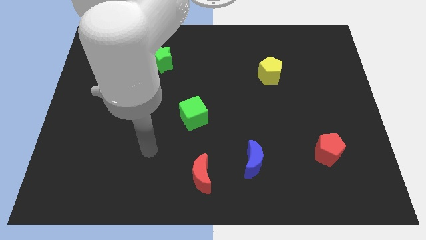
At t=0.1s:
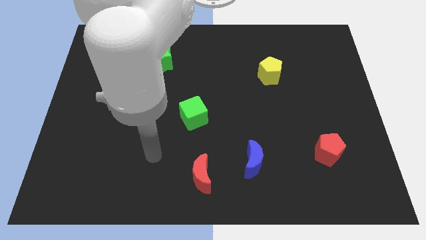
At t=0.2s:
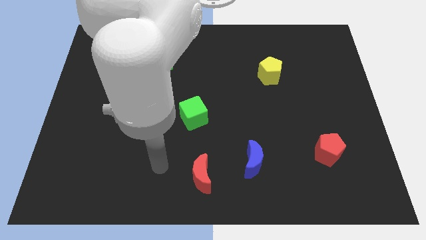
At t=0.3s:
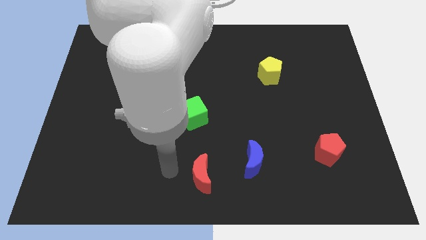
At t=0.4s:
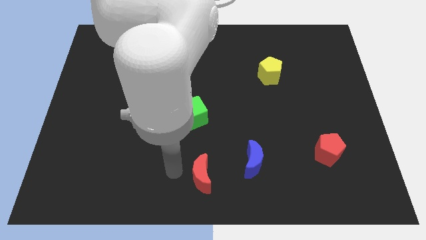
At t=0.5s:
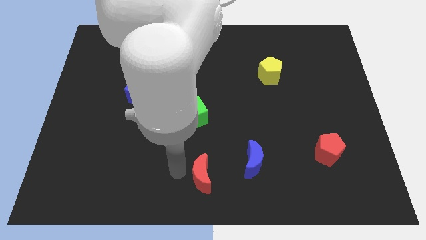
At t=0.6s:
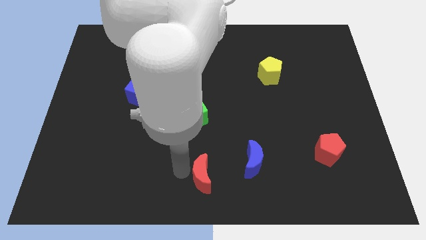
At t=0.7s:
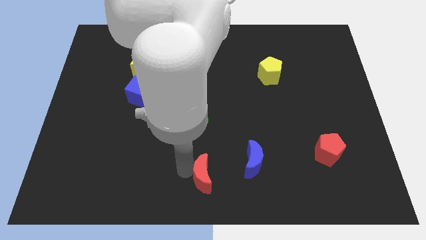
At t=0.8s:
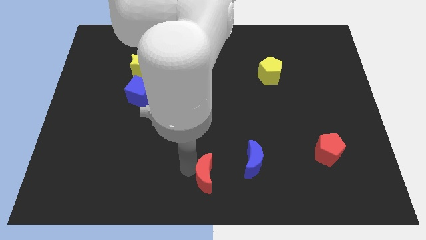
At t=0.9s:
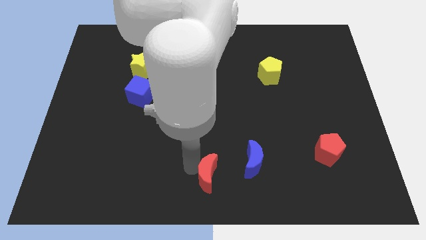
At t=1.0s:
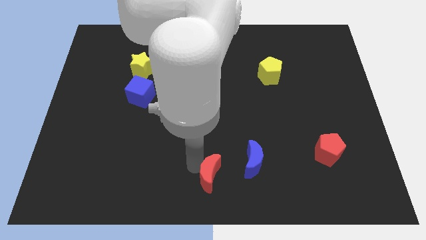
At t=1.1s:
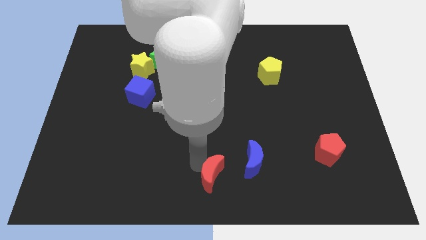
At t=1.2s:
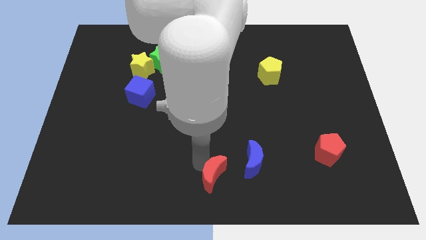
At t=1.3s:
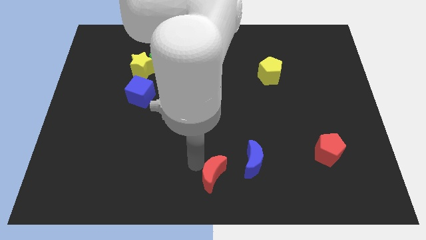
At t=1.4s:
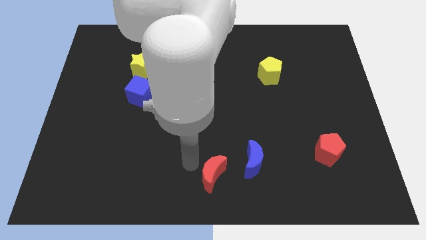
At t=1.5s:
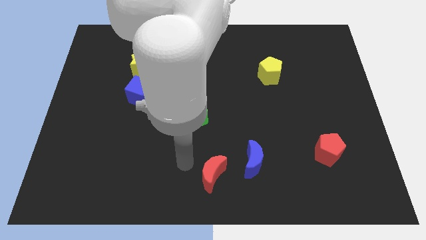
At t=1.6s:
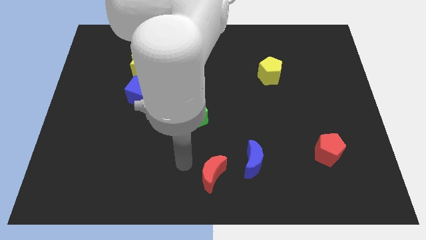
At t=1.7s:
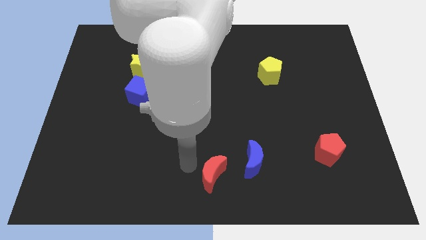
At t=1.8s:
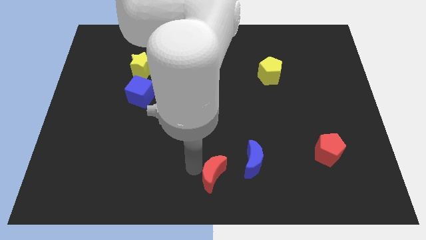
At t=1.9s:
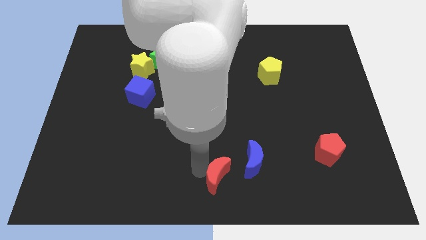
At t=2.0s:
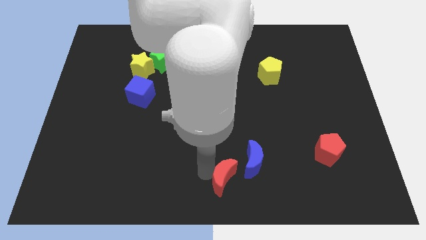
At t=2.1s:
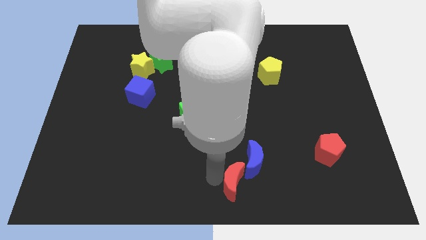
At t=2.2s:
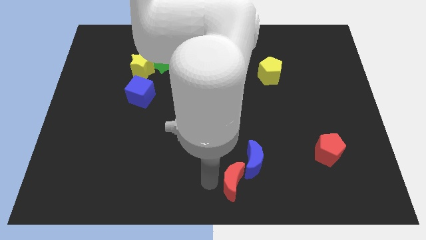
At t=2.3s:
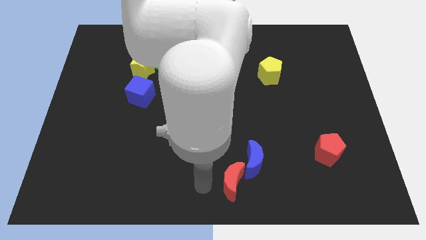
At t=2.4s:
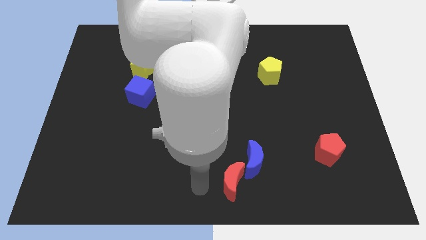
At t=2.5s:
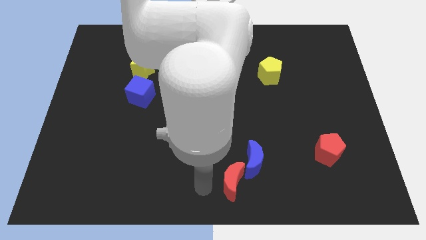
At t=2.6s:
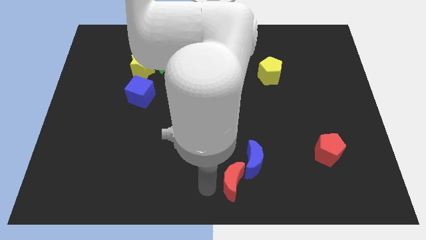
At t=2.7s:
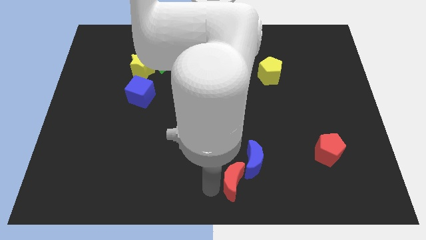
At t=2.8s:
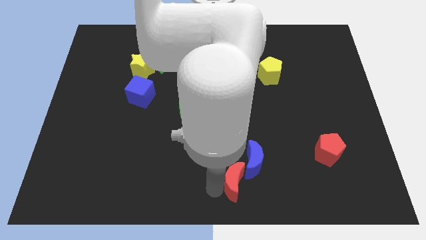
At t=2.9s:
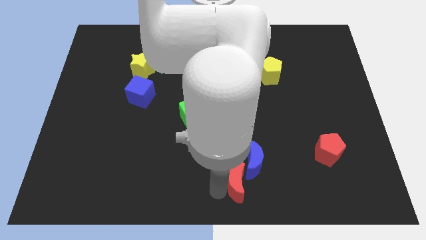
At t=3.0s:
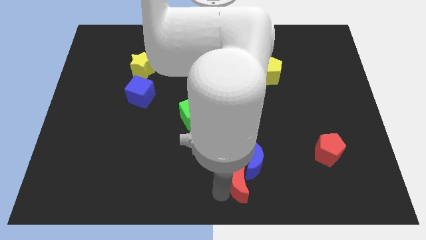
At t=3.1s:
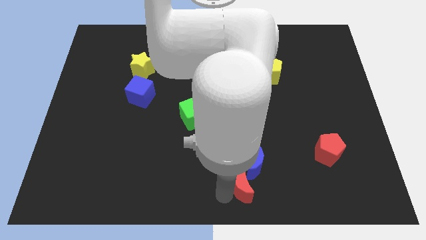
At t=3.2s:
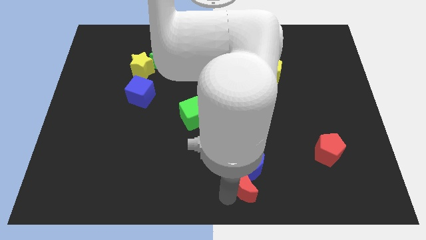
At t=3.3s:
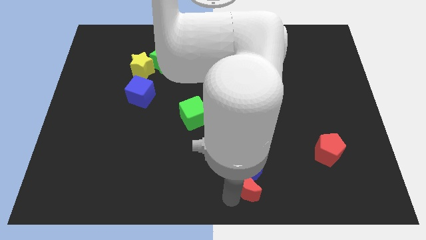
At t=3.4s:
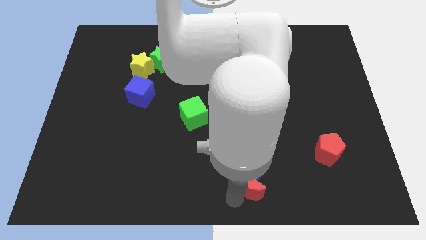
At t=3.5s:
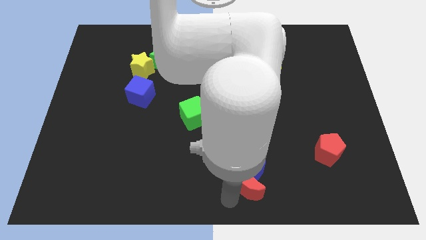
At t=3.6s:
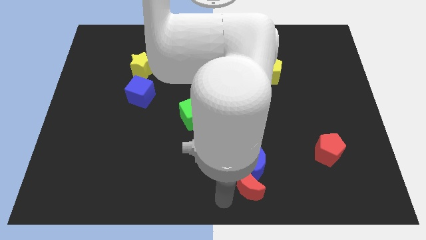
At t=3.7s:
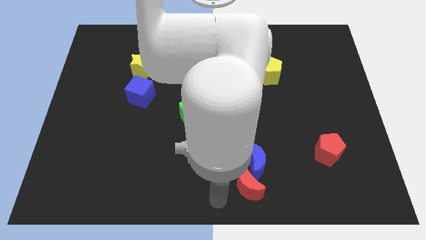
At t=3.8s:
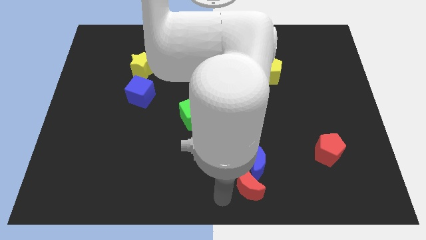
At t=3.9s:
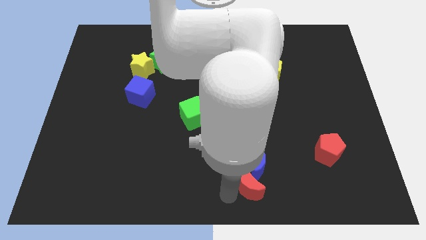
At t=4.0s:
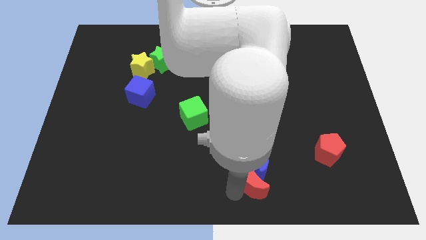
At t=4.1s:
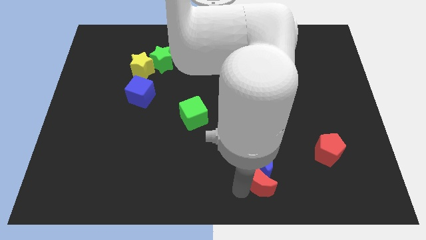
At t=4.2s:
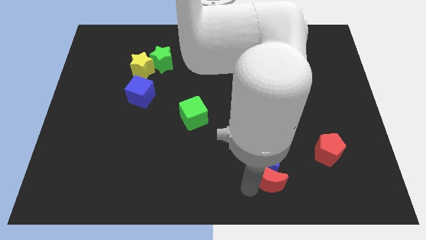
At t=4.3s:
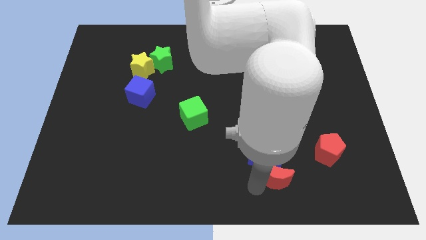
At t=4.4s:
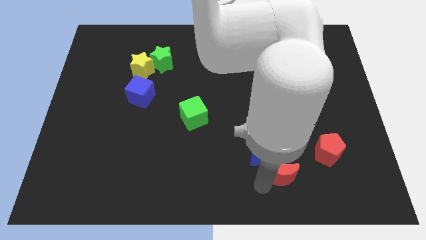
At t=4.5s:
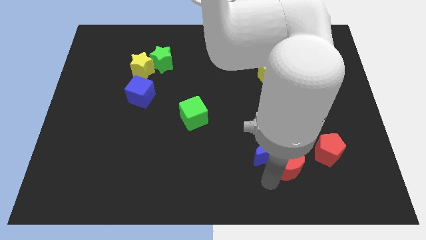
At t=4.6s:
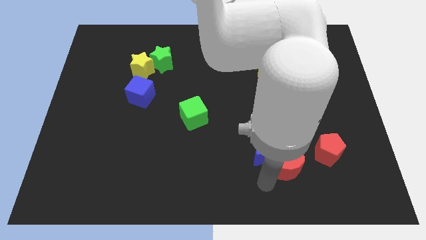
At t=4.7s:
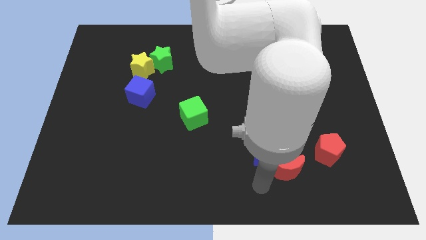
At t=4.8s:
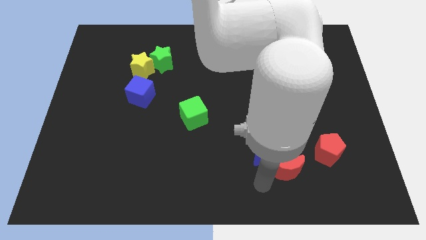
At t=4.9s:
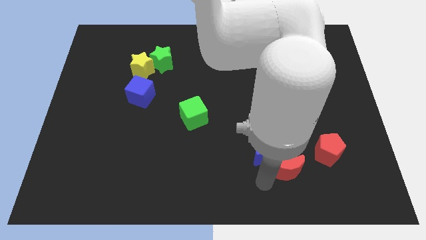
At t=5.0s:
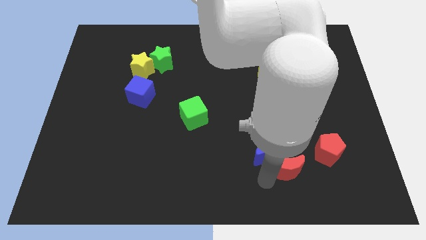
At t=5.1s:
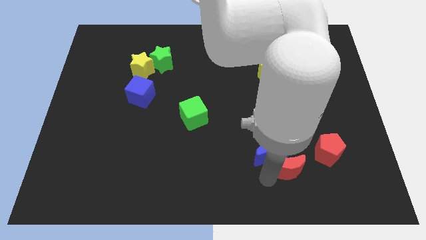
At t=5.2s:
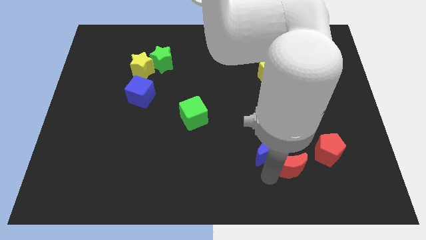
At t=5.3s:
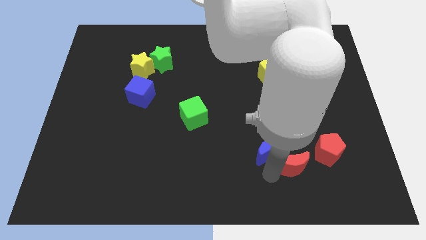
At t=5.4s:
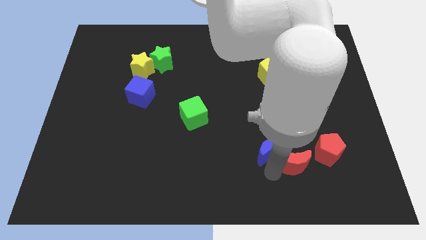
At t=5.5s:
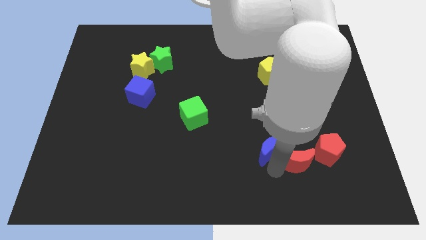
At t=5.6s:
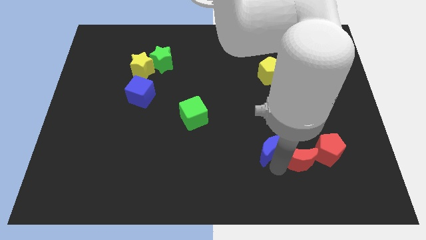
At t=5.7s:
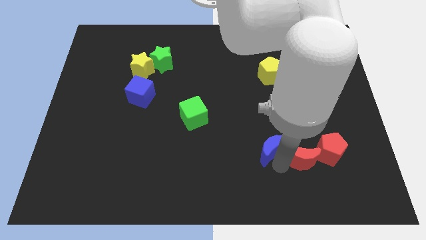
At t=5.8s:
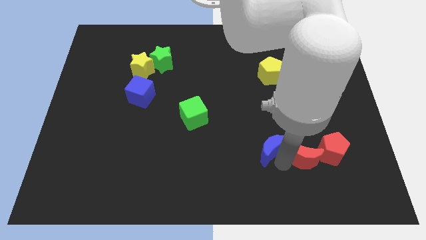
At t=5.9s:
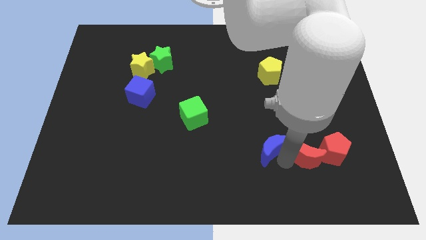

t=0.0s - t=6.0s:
push the red moon to the red pentagon
